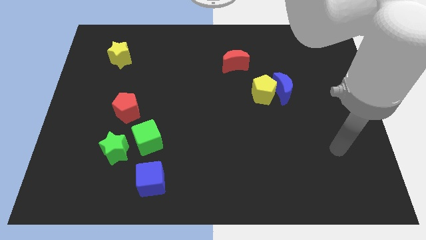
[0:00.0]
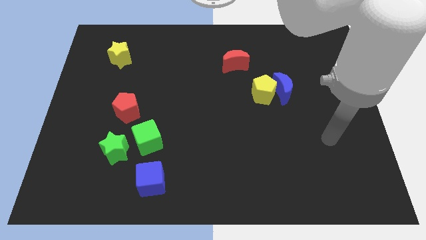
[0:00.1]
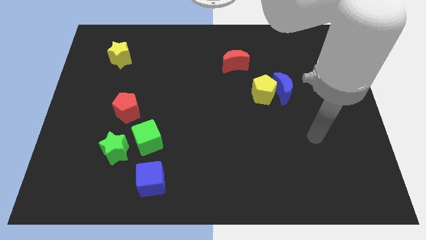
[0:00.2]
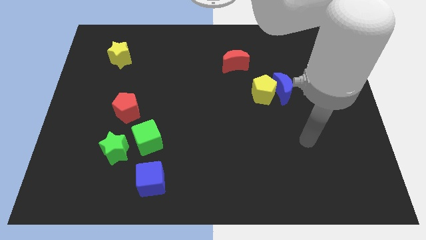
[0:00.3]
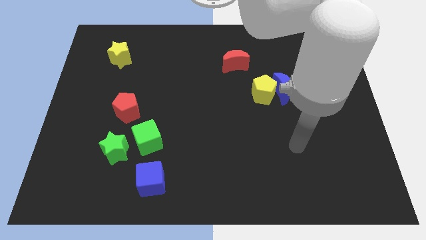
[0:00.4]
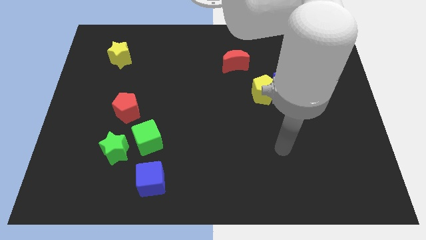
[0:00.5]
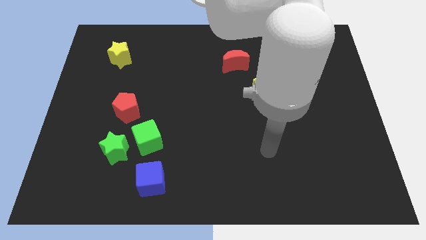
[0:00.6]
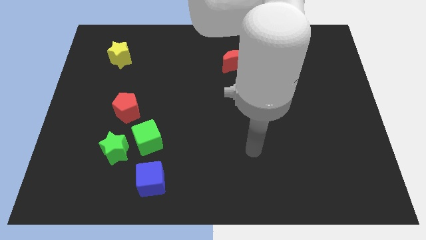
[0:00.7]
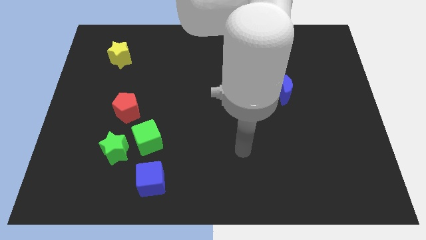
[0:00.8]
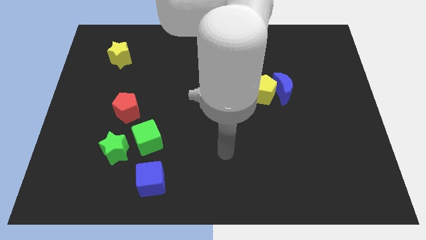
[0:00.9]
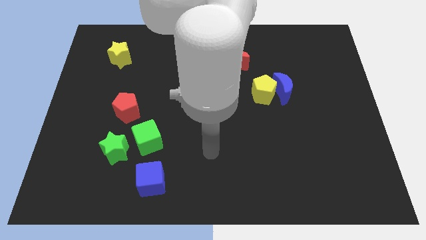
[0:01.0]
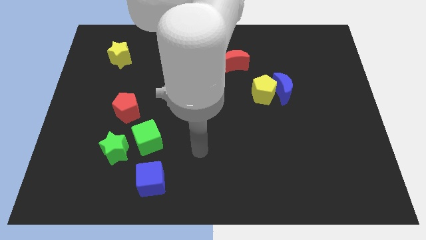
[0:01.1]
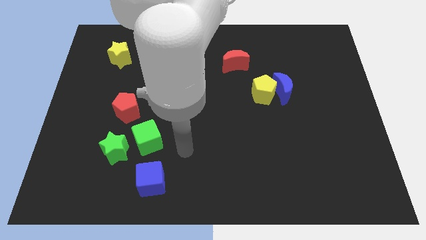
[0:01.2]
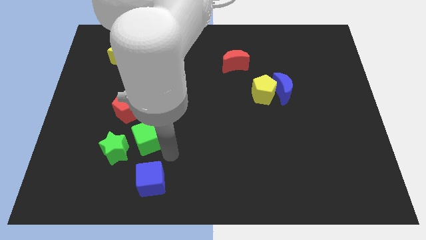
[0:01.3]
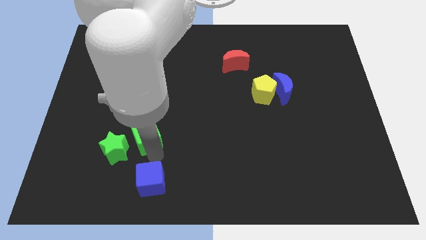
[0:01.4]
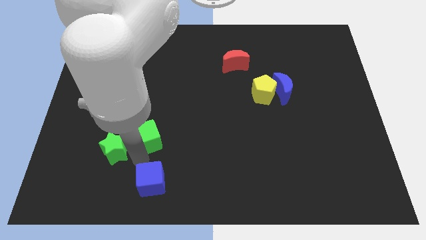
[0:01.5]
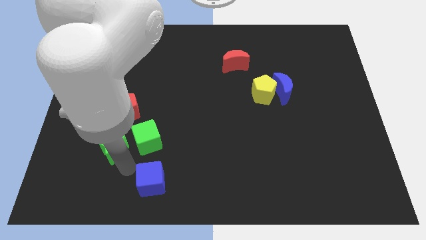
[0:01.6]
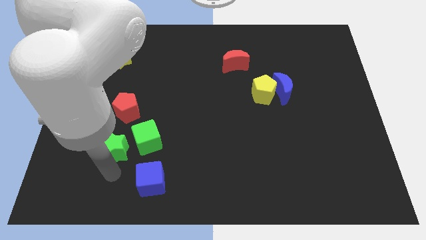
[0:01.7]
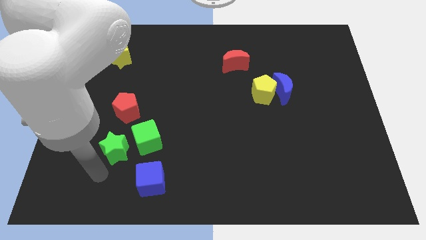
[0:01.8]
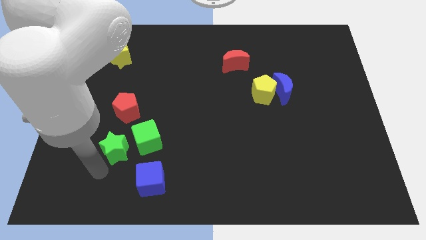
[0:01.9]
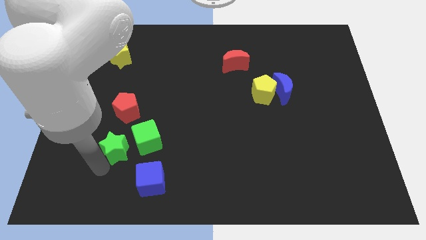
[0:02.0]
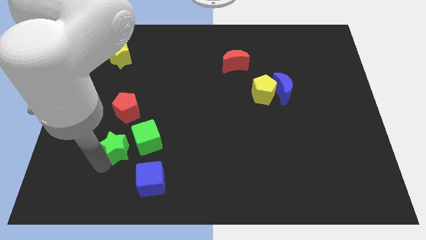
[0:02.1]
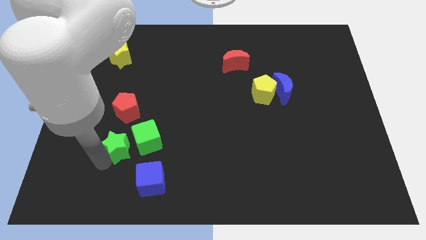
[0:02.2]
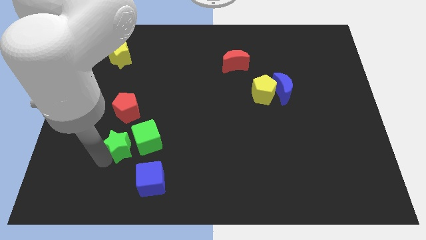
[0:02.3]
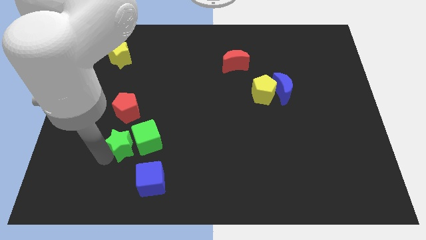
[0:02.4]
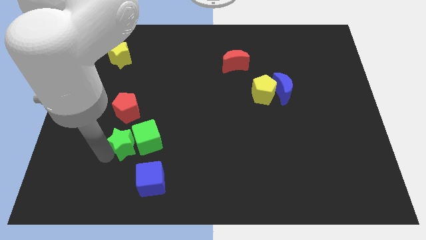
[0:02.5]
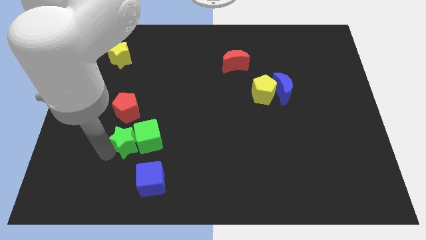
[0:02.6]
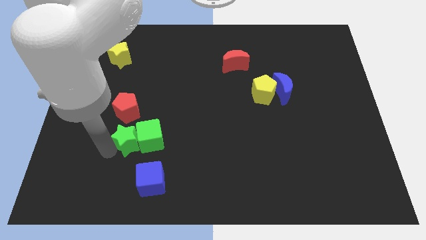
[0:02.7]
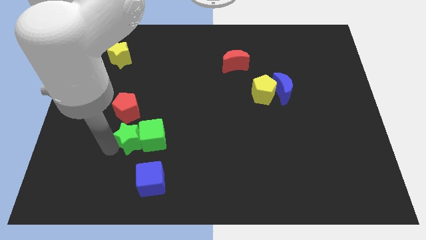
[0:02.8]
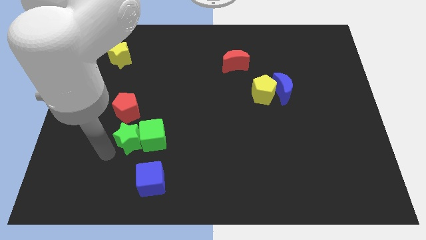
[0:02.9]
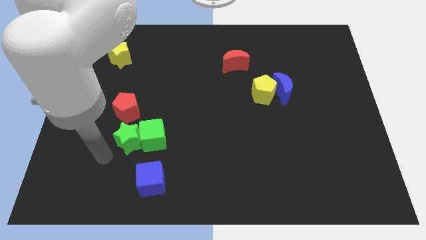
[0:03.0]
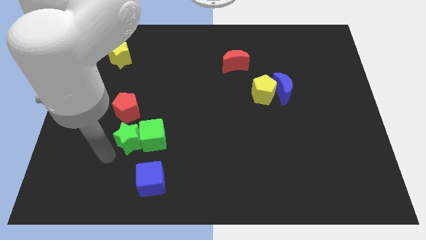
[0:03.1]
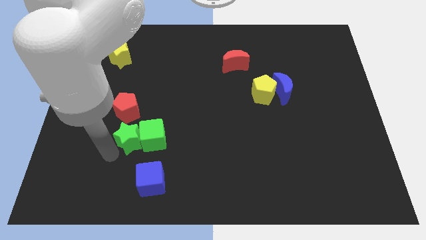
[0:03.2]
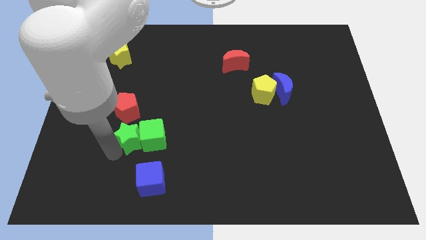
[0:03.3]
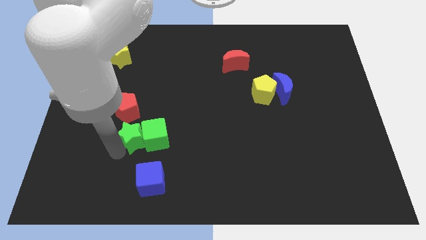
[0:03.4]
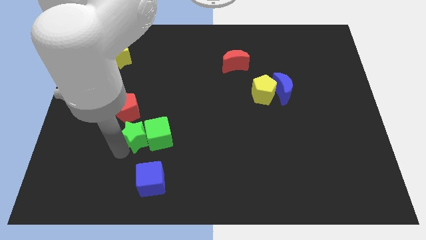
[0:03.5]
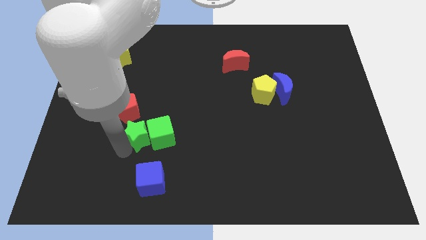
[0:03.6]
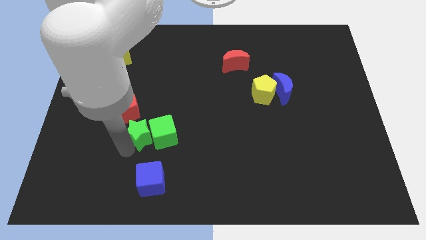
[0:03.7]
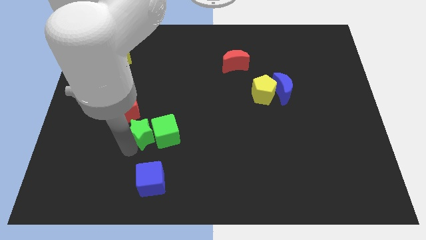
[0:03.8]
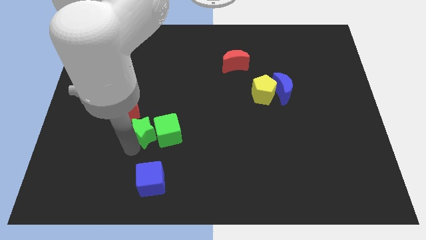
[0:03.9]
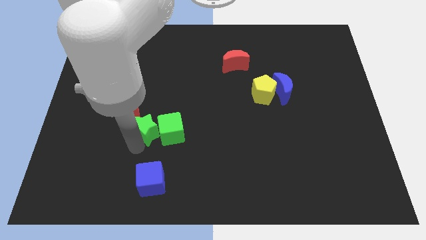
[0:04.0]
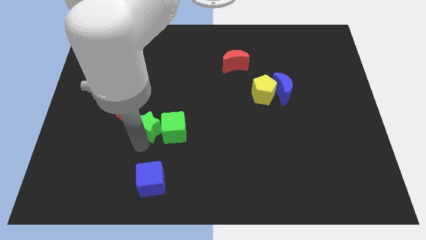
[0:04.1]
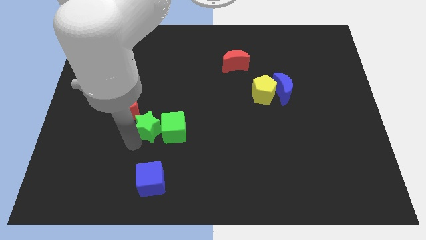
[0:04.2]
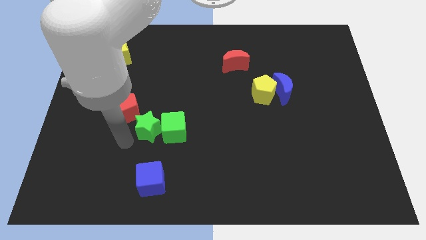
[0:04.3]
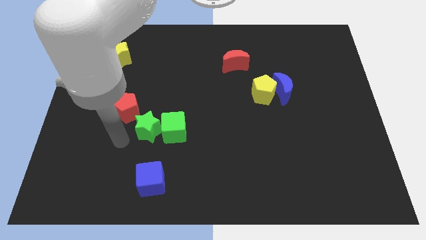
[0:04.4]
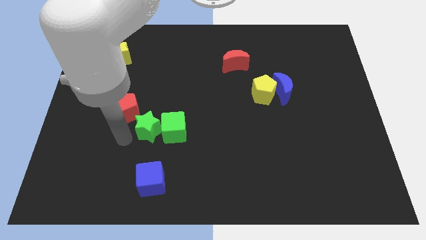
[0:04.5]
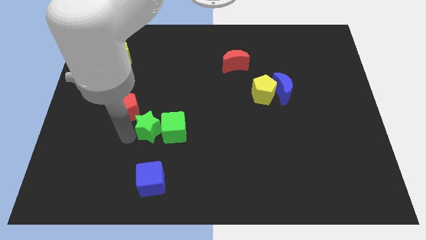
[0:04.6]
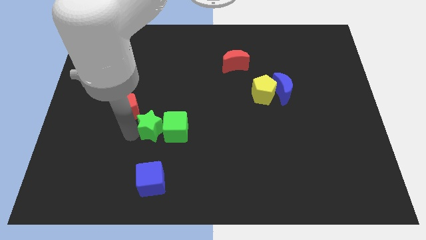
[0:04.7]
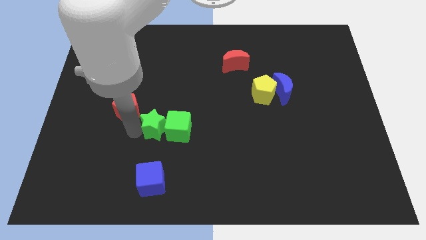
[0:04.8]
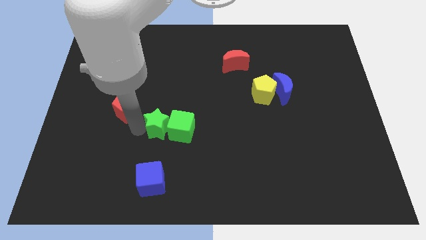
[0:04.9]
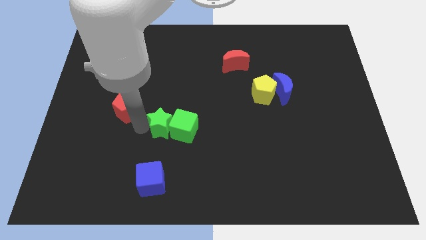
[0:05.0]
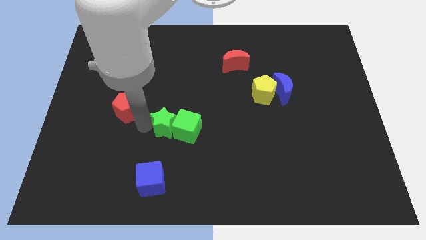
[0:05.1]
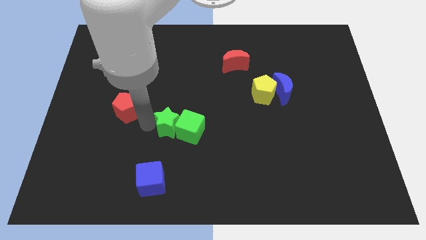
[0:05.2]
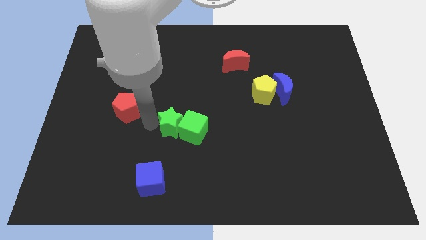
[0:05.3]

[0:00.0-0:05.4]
move the green star to the middle

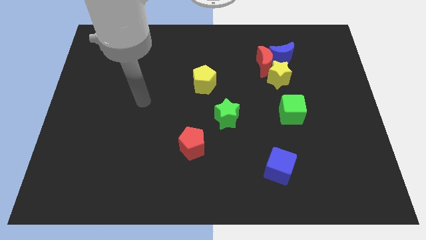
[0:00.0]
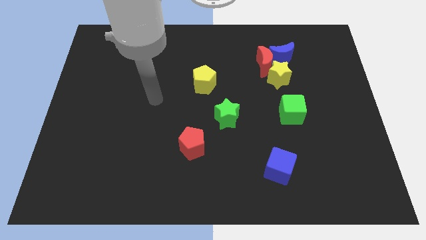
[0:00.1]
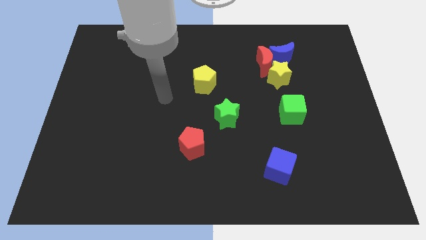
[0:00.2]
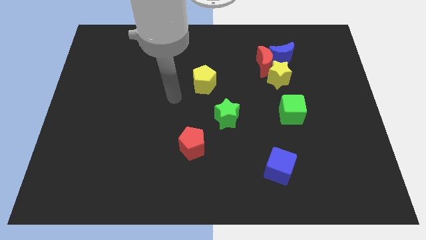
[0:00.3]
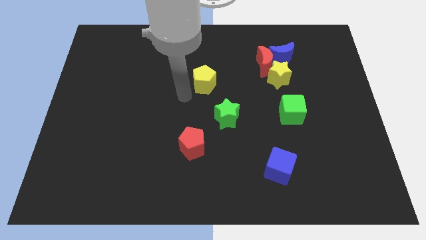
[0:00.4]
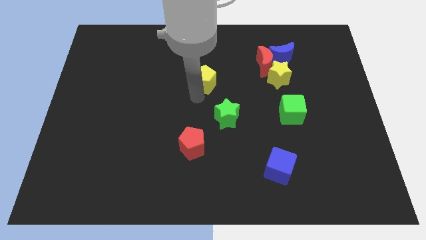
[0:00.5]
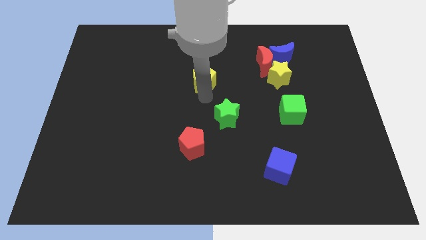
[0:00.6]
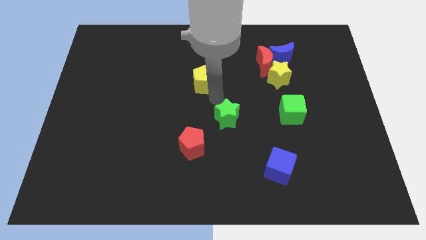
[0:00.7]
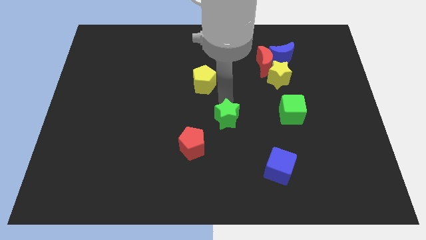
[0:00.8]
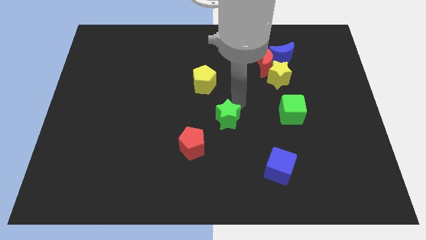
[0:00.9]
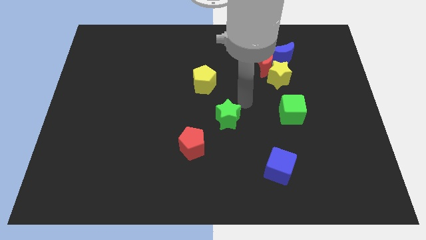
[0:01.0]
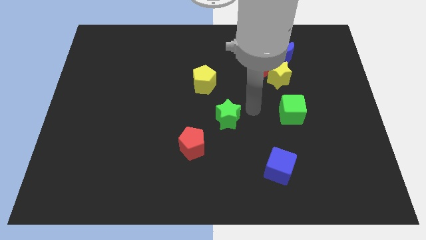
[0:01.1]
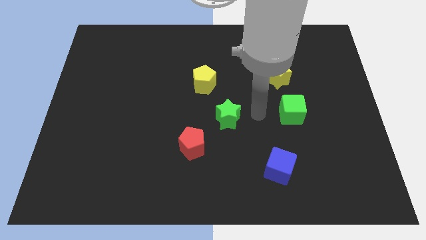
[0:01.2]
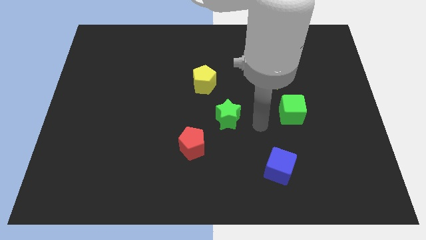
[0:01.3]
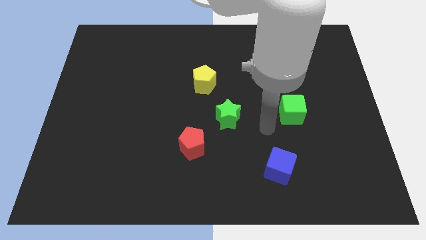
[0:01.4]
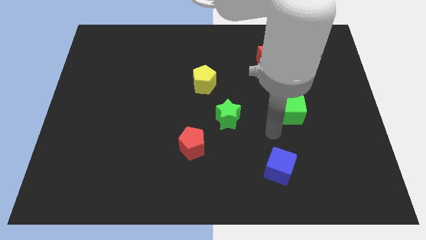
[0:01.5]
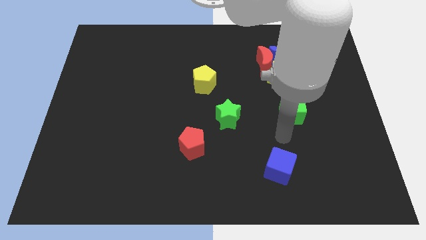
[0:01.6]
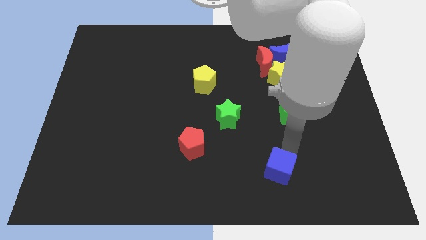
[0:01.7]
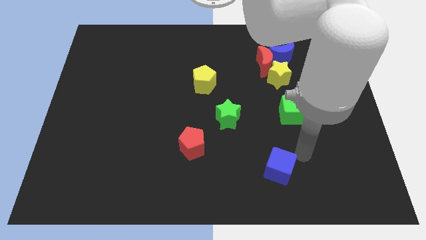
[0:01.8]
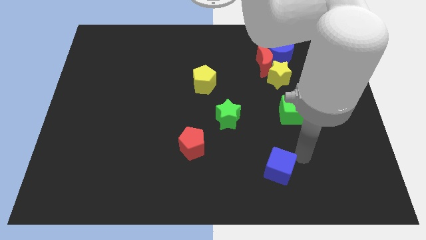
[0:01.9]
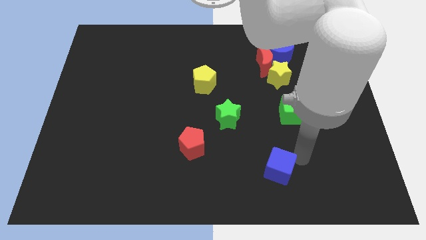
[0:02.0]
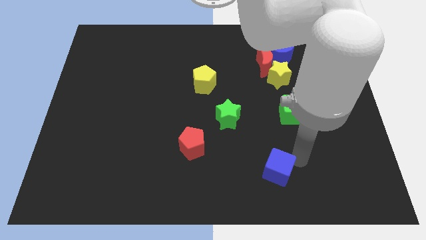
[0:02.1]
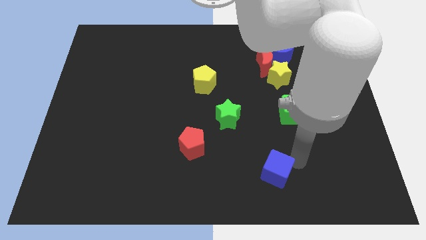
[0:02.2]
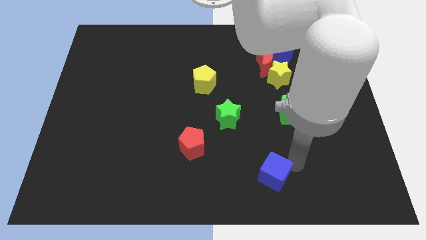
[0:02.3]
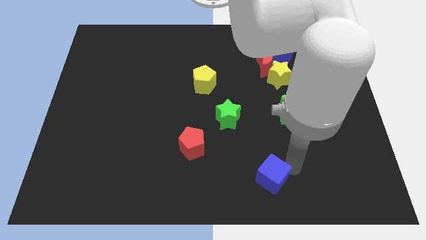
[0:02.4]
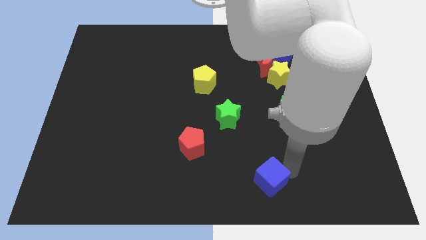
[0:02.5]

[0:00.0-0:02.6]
push the blue cube to the bottom
